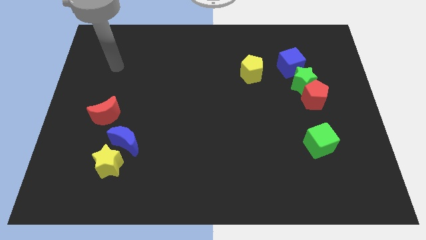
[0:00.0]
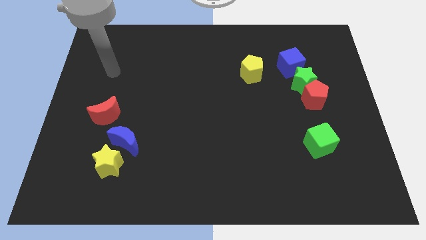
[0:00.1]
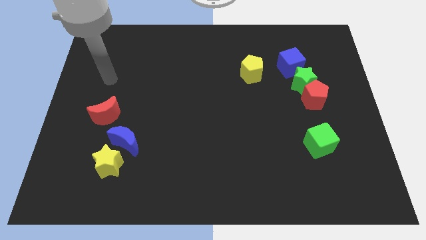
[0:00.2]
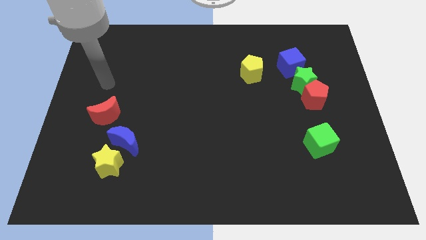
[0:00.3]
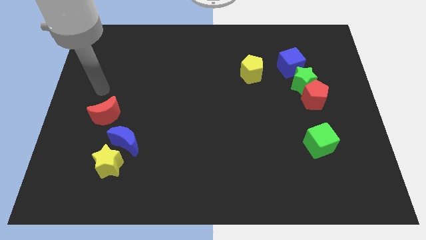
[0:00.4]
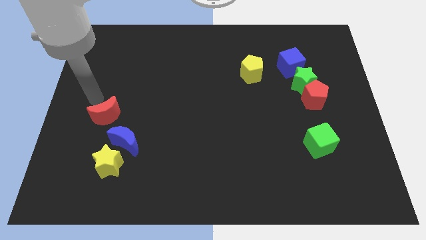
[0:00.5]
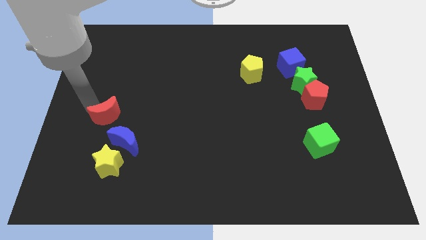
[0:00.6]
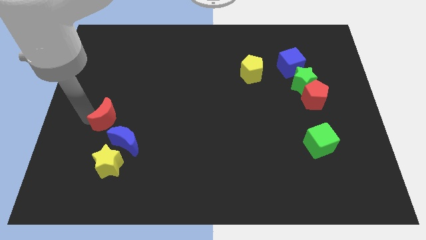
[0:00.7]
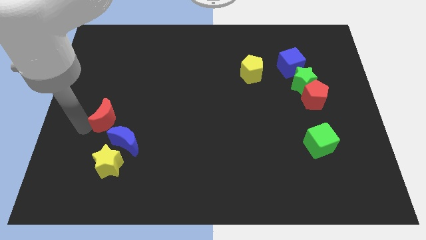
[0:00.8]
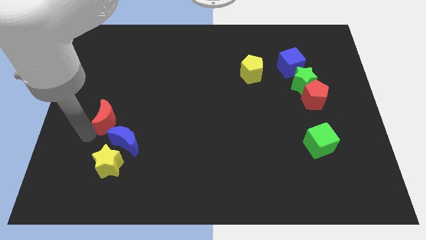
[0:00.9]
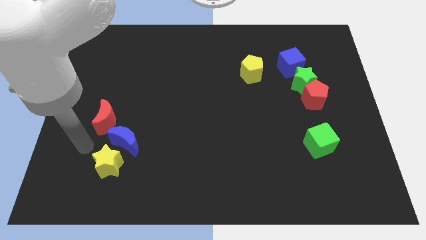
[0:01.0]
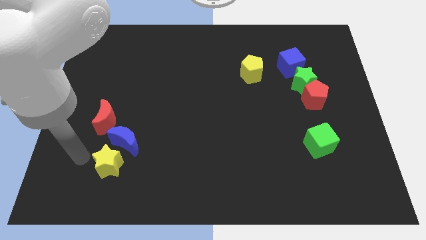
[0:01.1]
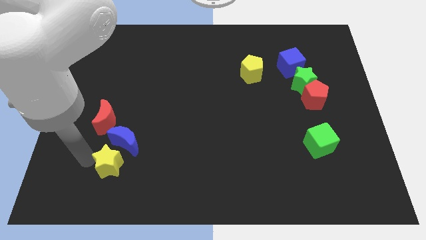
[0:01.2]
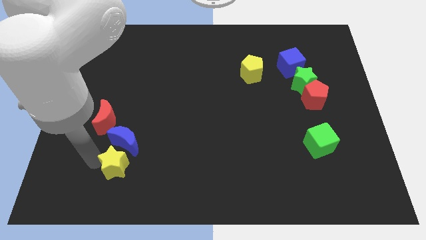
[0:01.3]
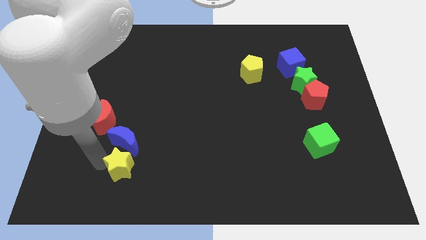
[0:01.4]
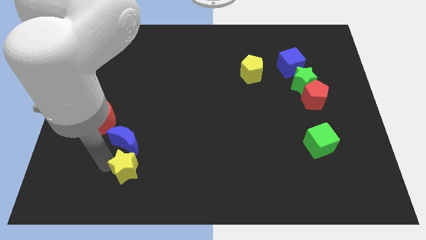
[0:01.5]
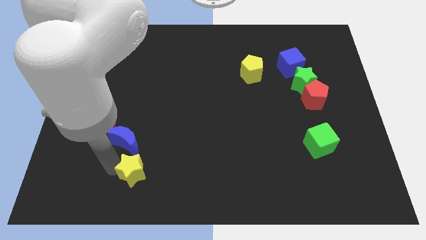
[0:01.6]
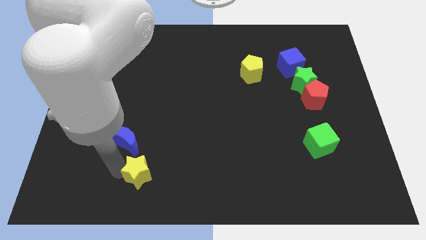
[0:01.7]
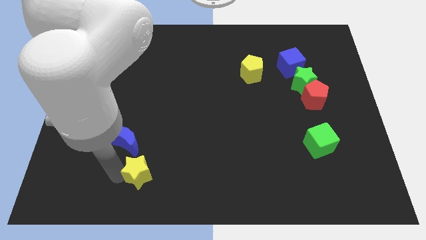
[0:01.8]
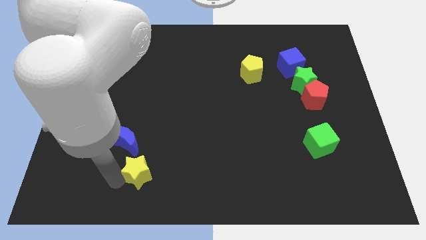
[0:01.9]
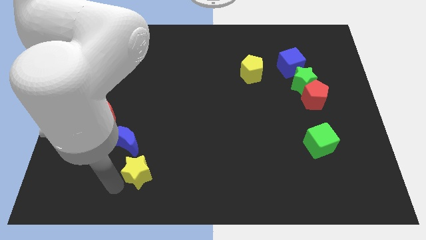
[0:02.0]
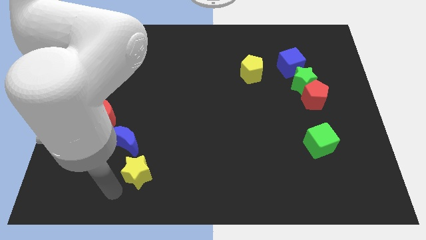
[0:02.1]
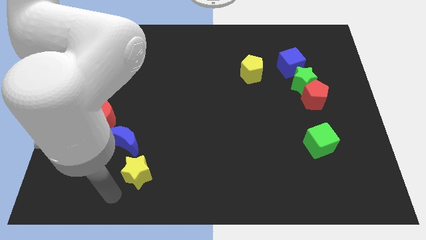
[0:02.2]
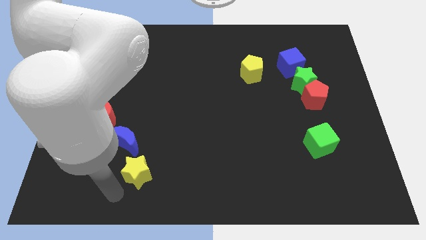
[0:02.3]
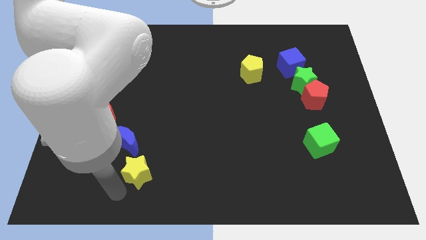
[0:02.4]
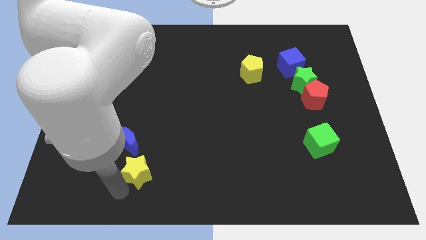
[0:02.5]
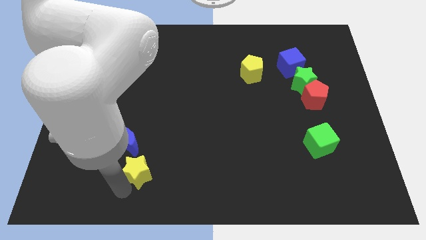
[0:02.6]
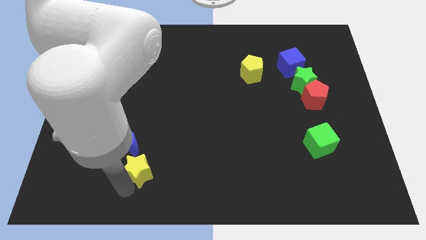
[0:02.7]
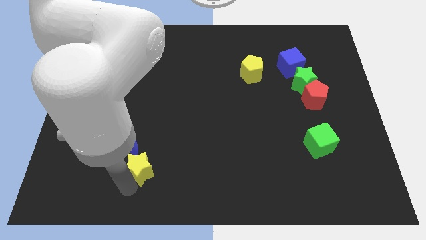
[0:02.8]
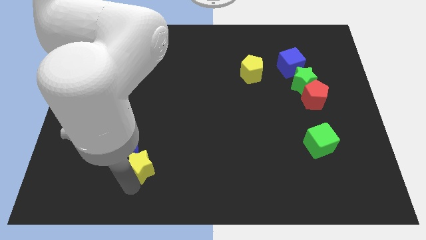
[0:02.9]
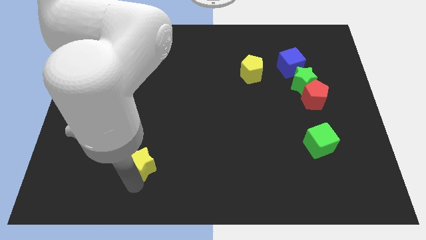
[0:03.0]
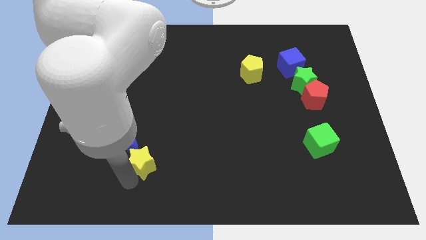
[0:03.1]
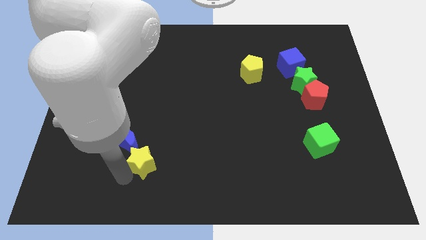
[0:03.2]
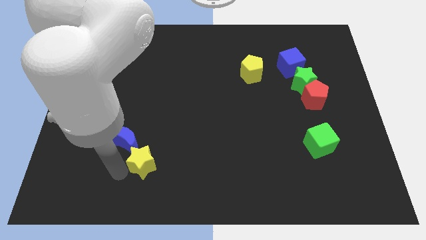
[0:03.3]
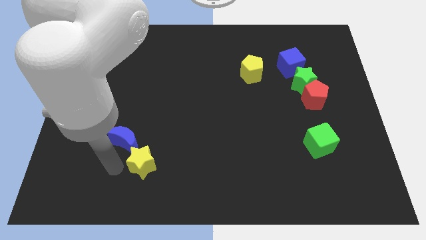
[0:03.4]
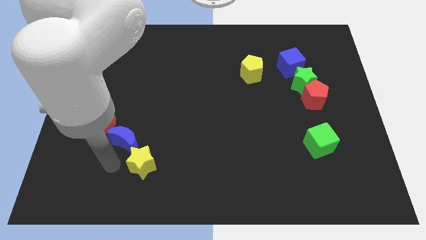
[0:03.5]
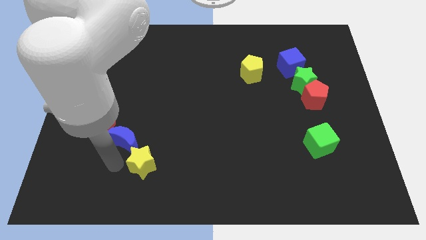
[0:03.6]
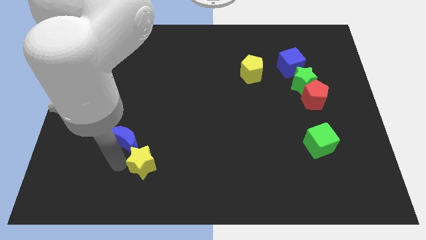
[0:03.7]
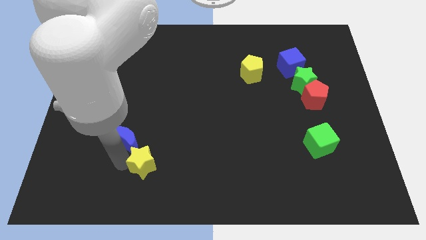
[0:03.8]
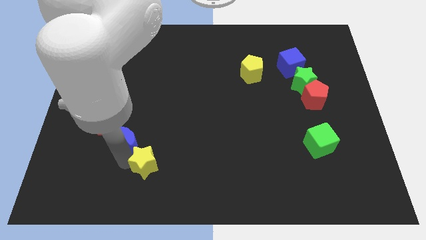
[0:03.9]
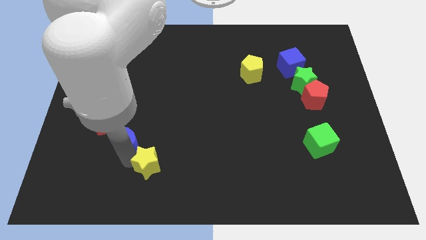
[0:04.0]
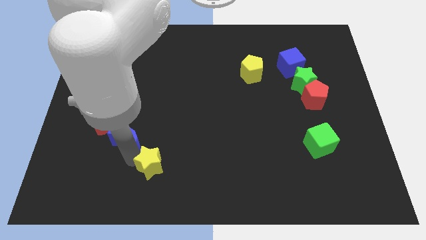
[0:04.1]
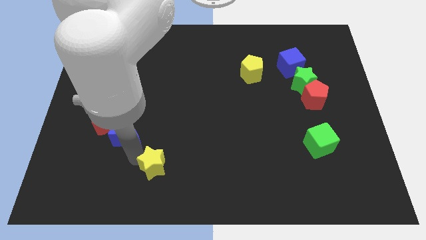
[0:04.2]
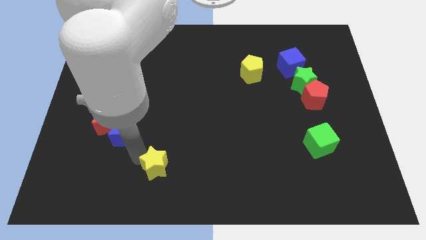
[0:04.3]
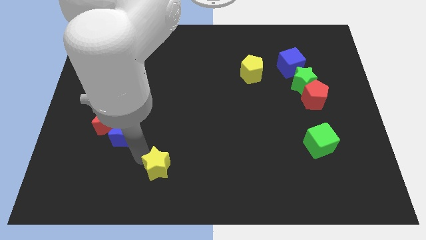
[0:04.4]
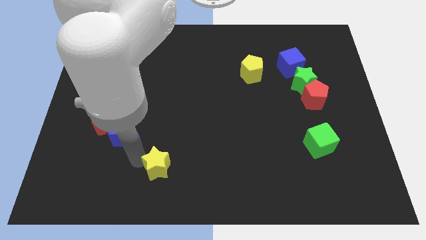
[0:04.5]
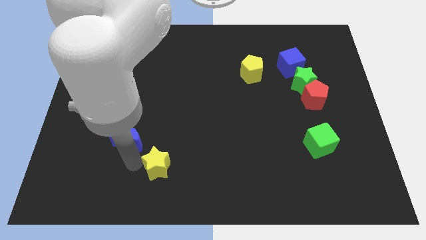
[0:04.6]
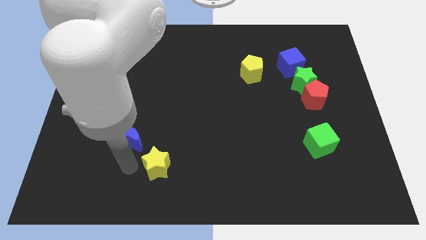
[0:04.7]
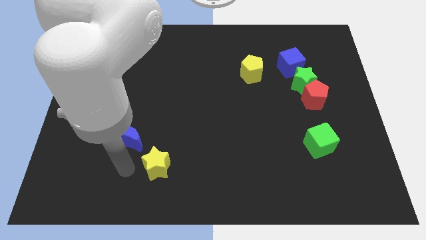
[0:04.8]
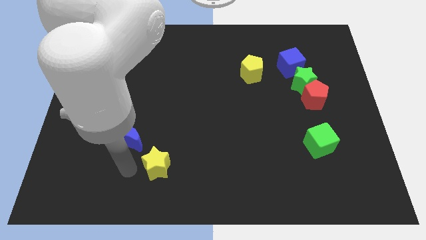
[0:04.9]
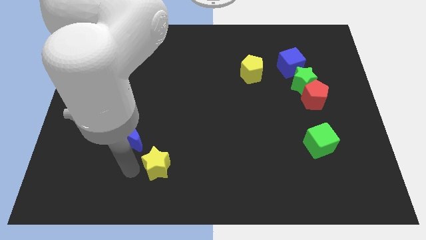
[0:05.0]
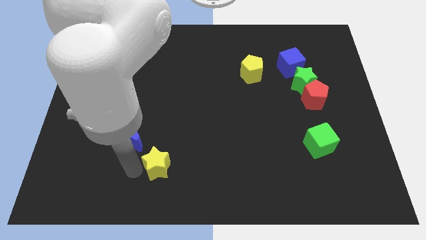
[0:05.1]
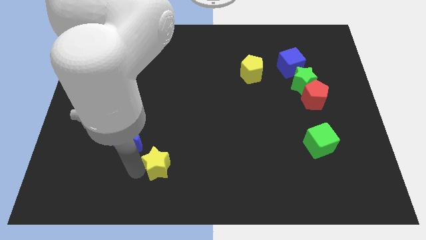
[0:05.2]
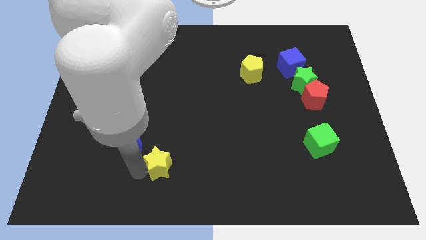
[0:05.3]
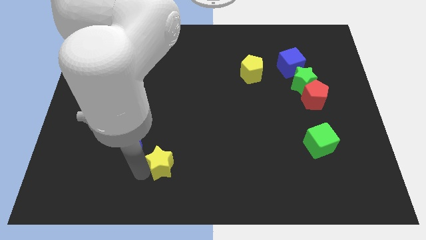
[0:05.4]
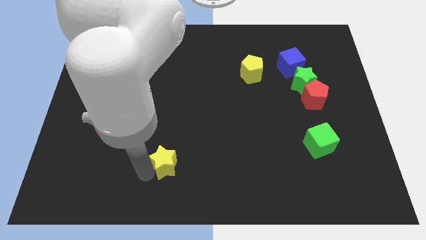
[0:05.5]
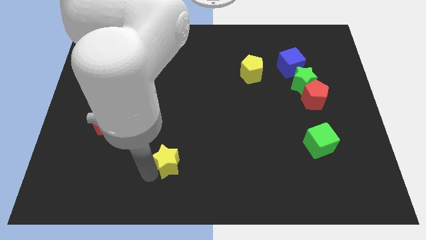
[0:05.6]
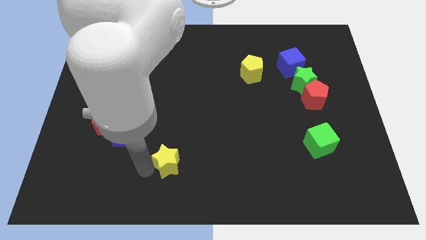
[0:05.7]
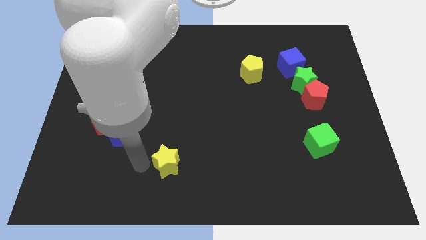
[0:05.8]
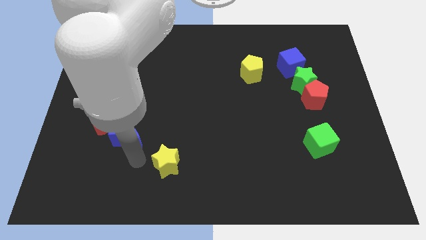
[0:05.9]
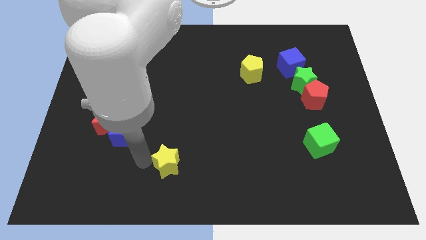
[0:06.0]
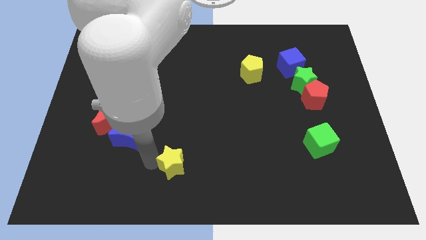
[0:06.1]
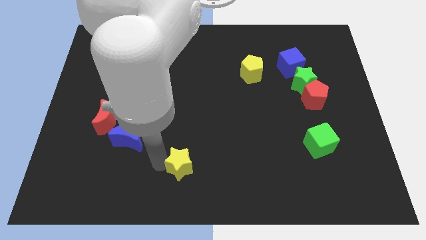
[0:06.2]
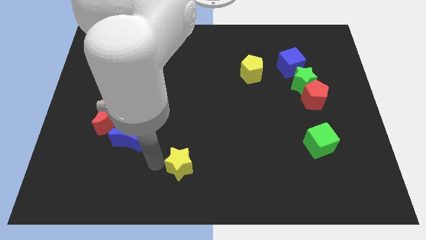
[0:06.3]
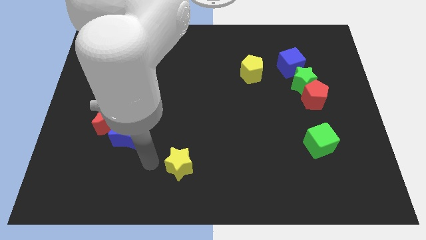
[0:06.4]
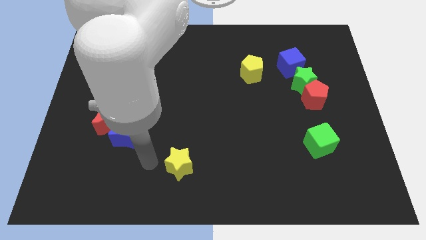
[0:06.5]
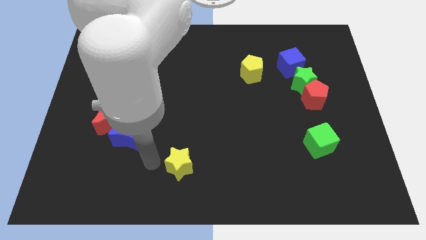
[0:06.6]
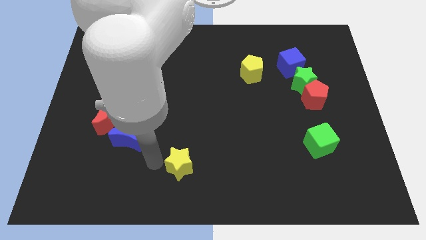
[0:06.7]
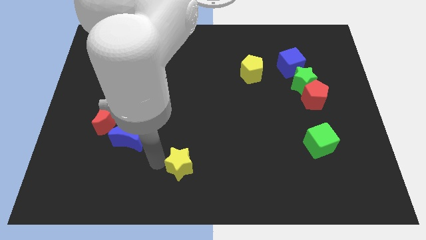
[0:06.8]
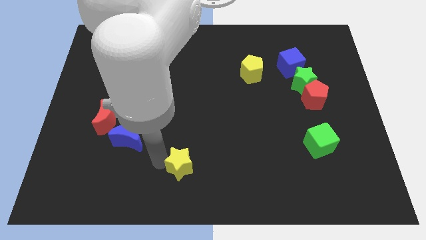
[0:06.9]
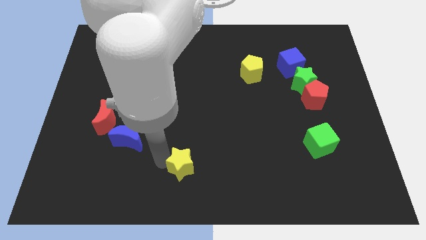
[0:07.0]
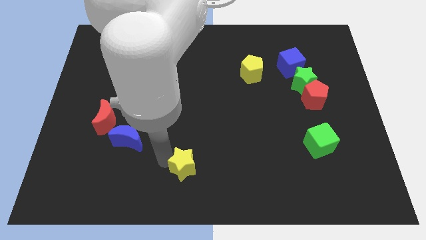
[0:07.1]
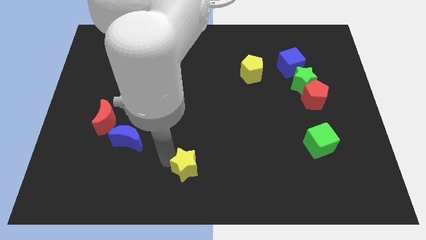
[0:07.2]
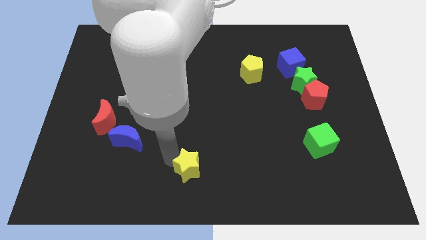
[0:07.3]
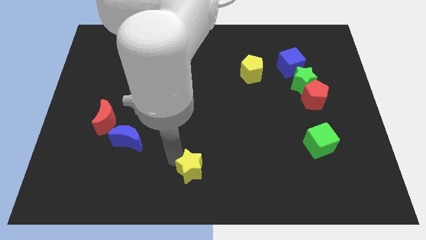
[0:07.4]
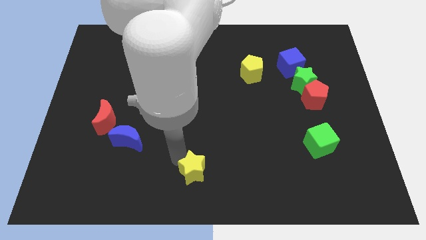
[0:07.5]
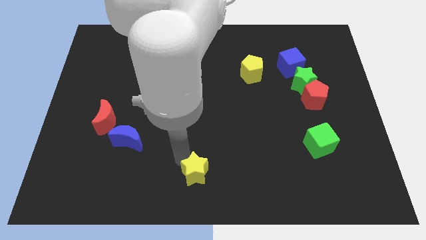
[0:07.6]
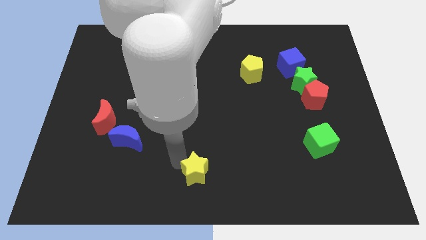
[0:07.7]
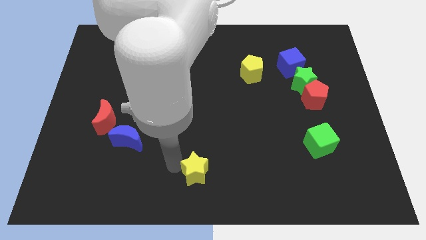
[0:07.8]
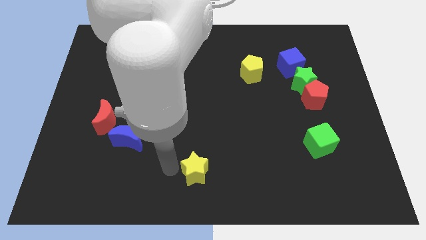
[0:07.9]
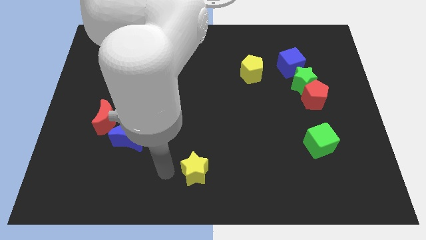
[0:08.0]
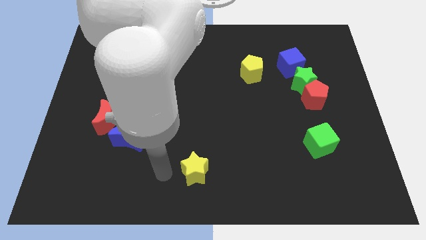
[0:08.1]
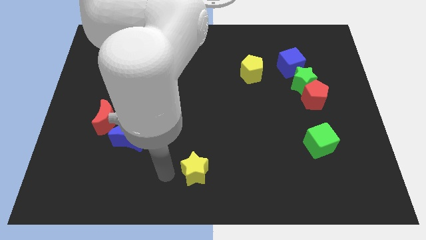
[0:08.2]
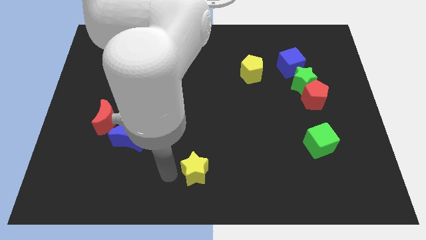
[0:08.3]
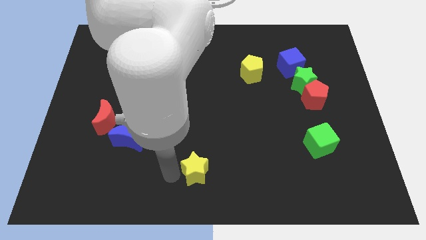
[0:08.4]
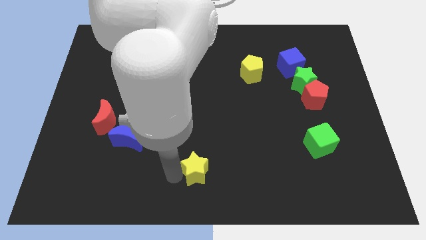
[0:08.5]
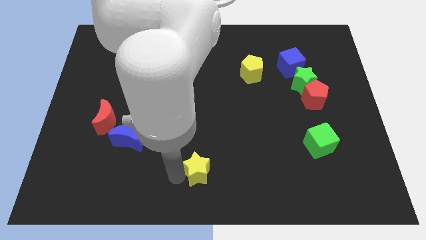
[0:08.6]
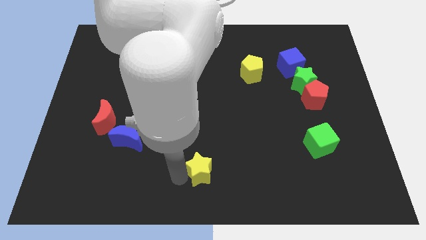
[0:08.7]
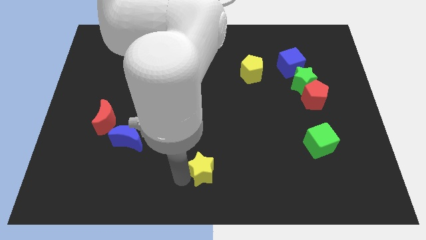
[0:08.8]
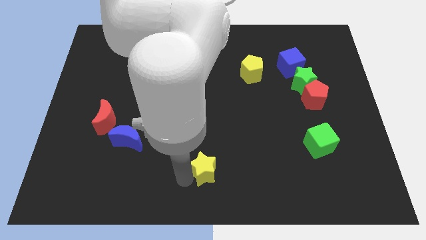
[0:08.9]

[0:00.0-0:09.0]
move the yellow star right
